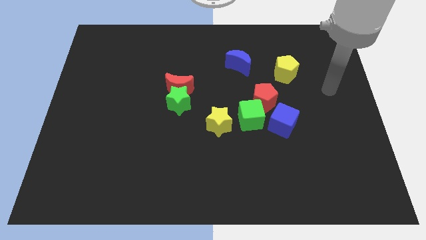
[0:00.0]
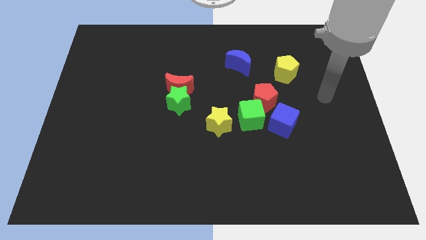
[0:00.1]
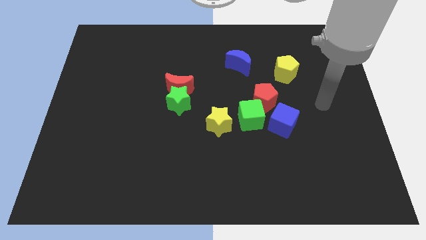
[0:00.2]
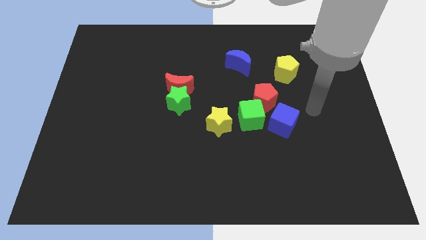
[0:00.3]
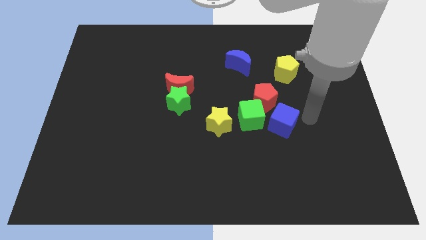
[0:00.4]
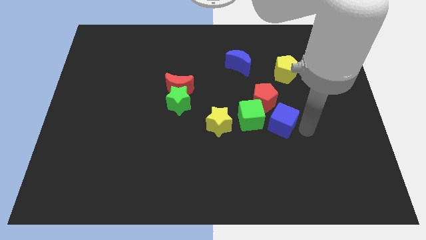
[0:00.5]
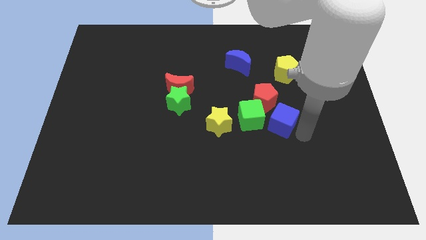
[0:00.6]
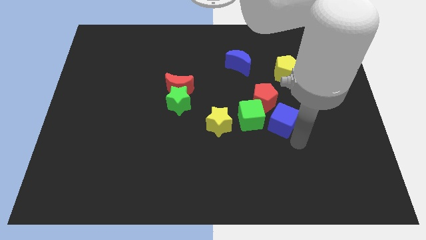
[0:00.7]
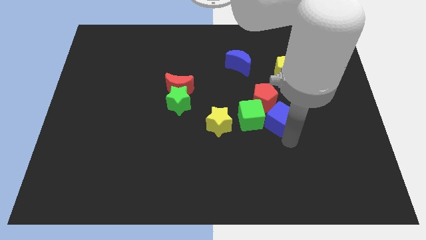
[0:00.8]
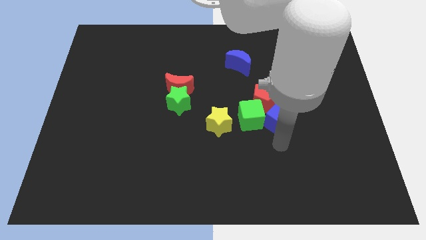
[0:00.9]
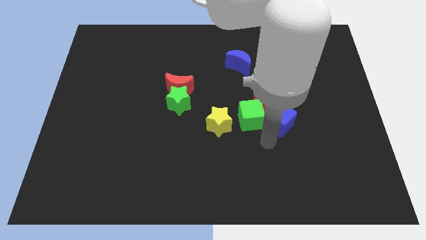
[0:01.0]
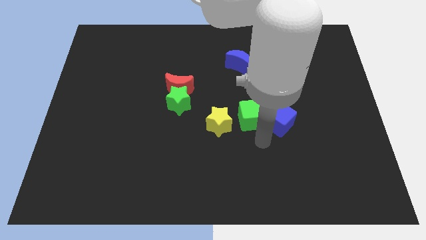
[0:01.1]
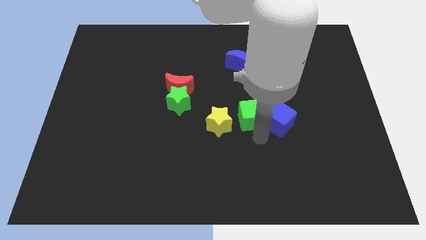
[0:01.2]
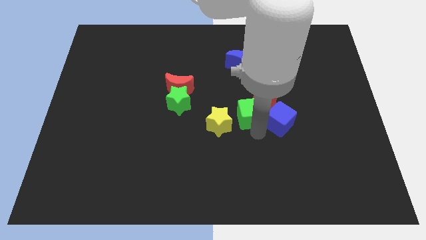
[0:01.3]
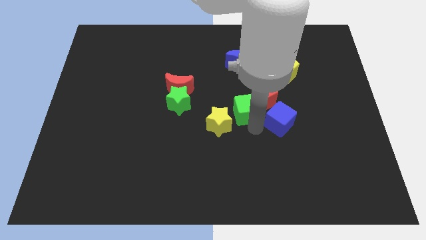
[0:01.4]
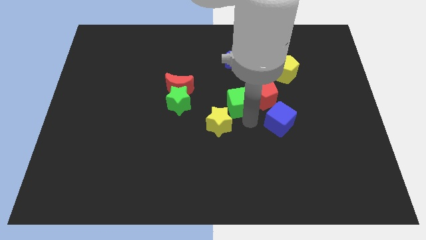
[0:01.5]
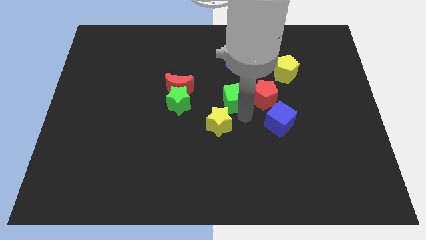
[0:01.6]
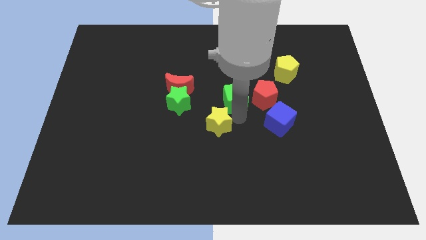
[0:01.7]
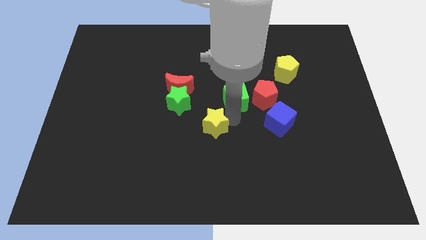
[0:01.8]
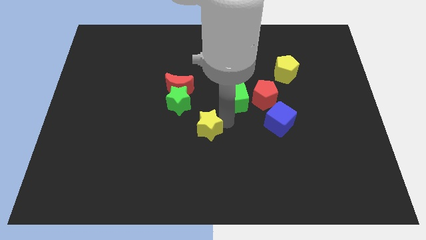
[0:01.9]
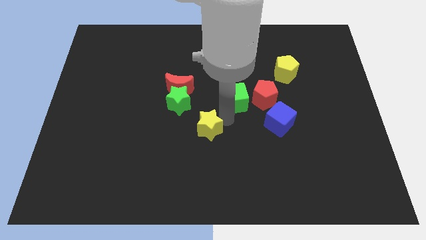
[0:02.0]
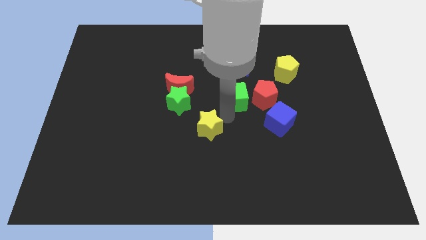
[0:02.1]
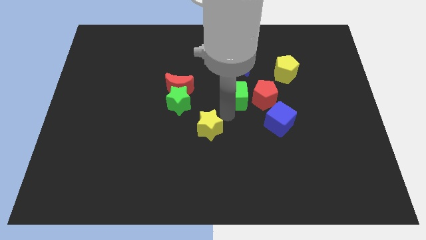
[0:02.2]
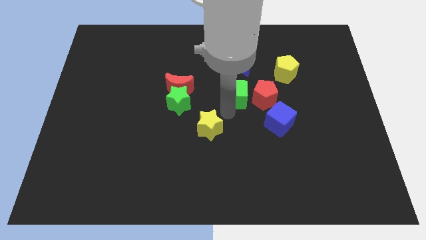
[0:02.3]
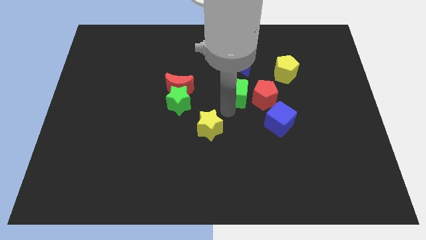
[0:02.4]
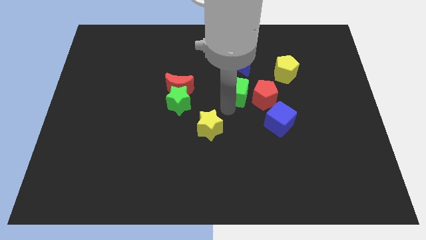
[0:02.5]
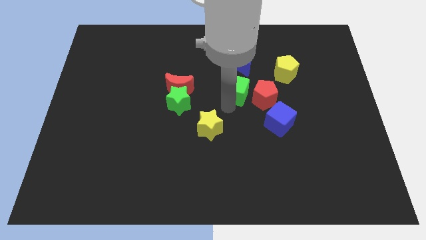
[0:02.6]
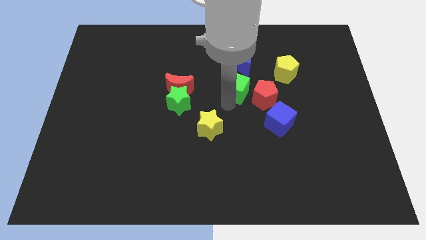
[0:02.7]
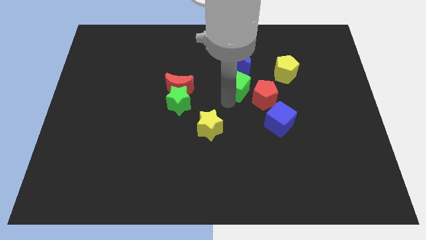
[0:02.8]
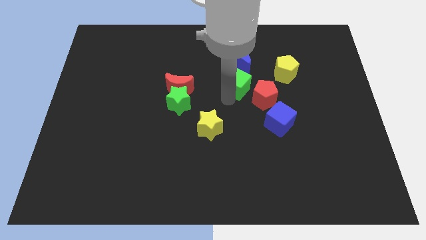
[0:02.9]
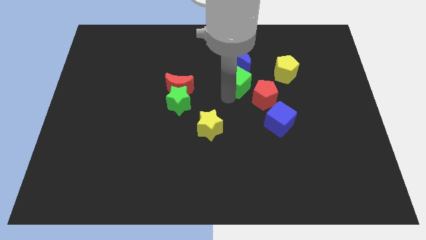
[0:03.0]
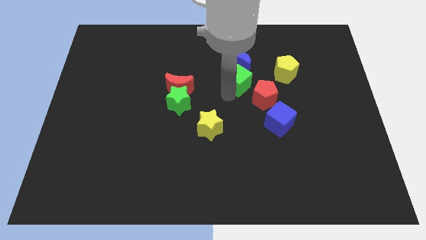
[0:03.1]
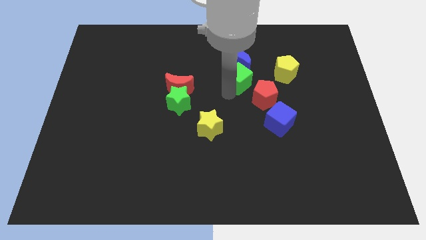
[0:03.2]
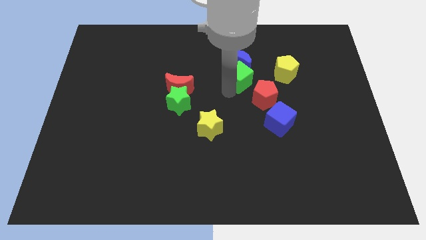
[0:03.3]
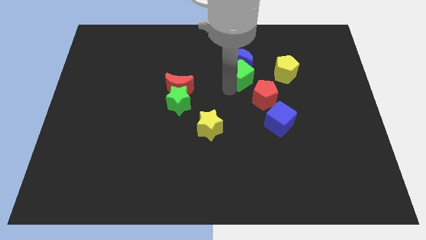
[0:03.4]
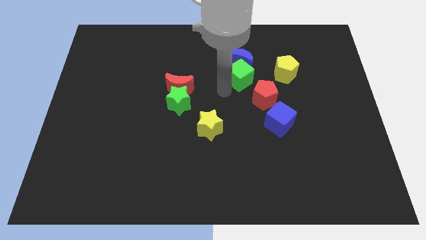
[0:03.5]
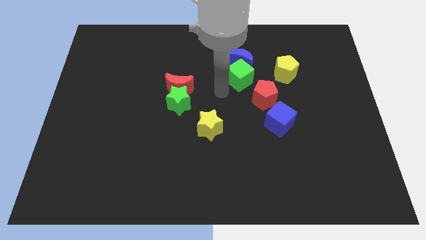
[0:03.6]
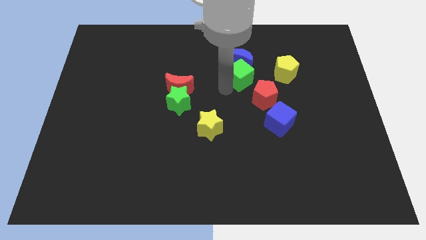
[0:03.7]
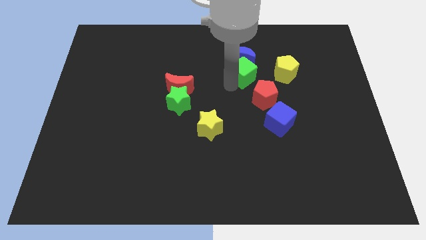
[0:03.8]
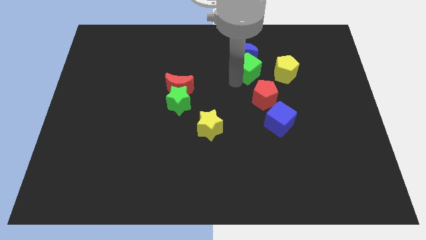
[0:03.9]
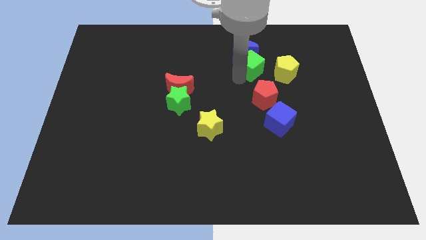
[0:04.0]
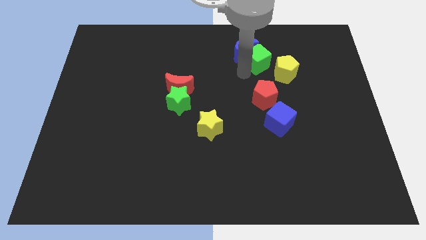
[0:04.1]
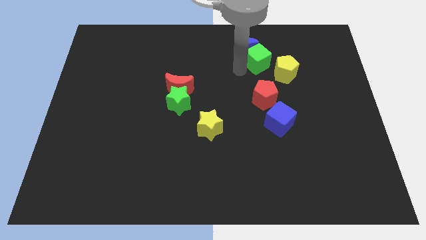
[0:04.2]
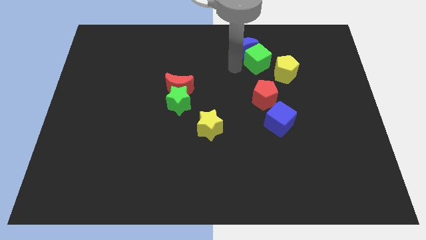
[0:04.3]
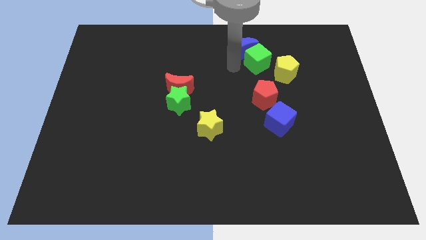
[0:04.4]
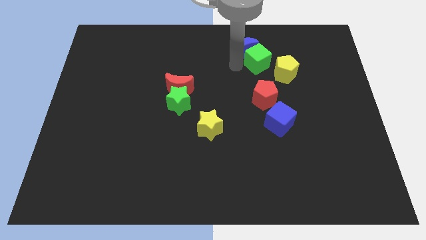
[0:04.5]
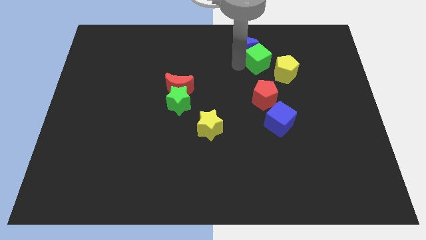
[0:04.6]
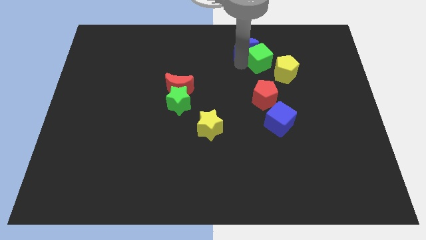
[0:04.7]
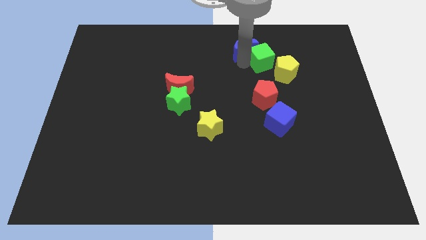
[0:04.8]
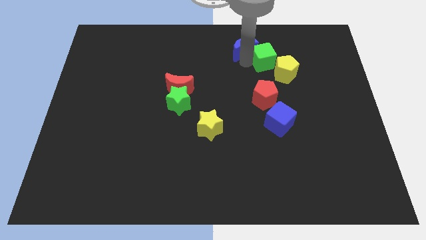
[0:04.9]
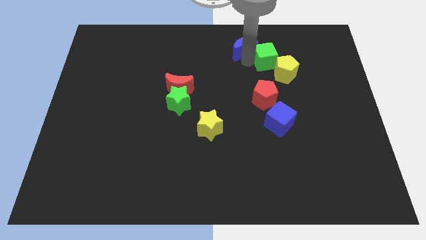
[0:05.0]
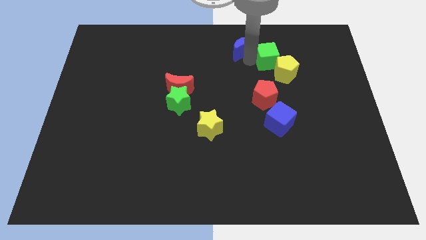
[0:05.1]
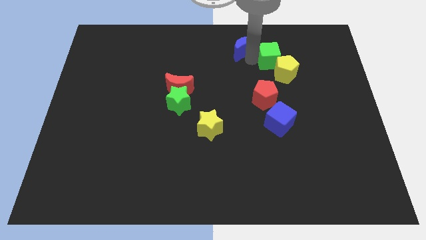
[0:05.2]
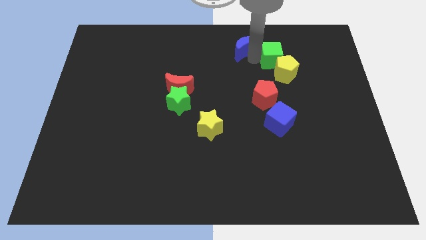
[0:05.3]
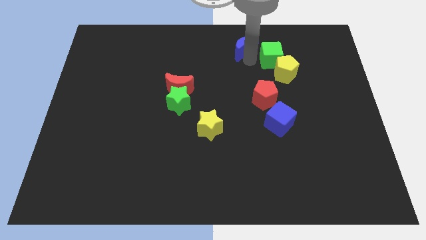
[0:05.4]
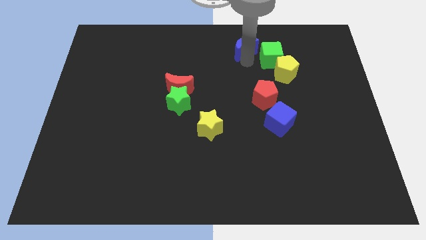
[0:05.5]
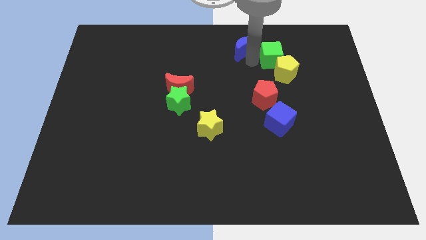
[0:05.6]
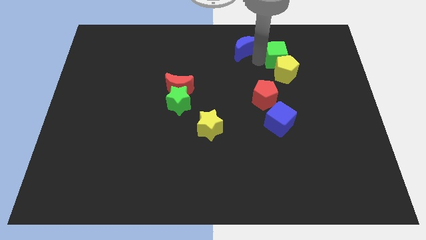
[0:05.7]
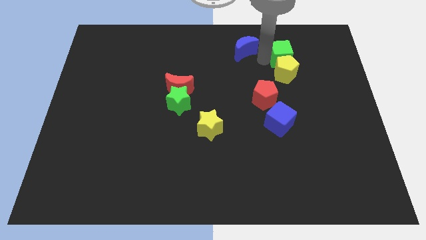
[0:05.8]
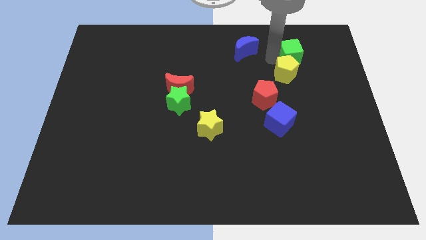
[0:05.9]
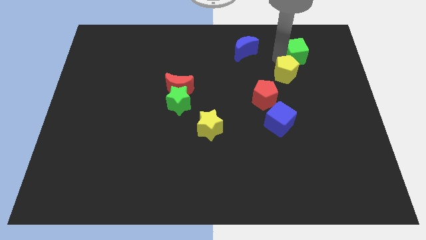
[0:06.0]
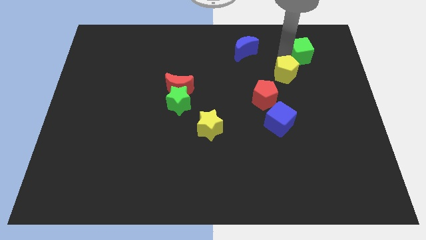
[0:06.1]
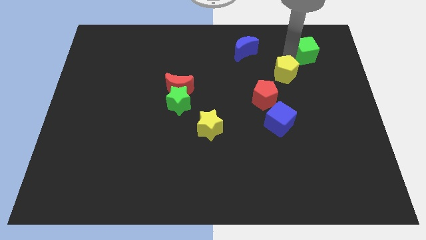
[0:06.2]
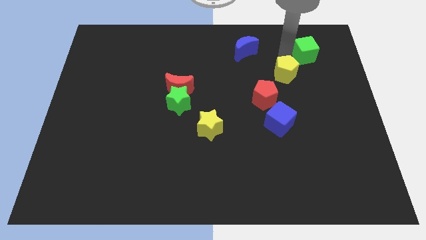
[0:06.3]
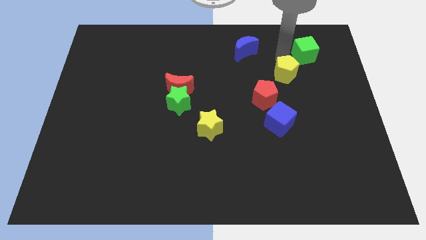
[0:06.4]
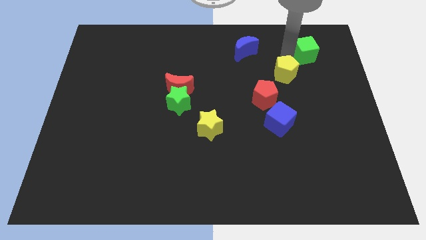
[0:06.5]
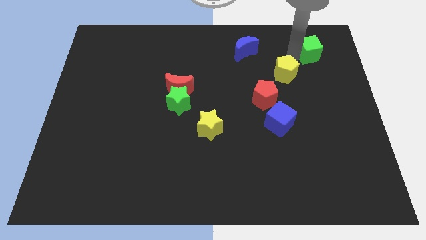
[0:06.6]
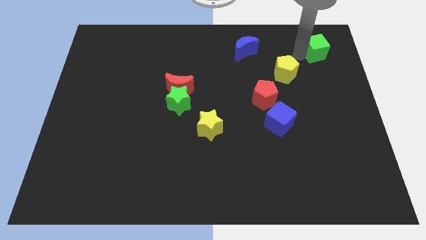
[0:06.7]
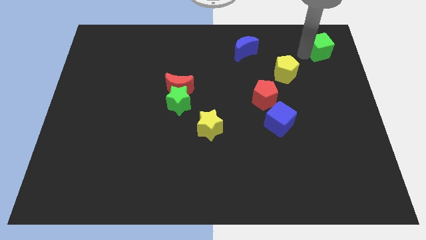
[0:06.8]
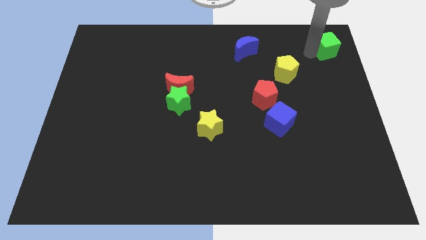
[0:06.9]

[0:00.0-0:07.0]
push the green cube to the upper right corner
